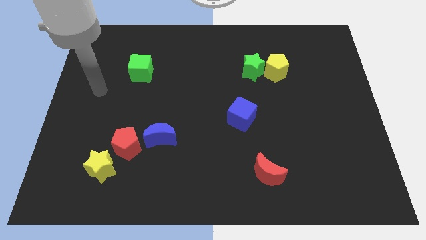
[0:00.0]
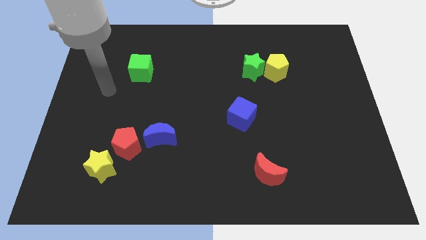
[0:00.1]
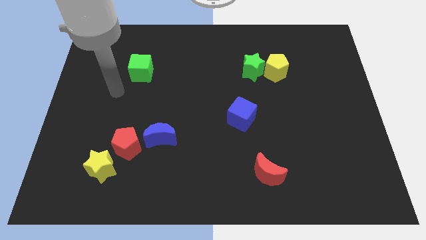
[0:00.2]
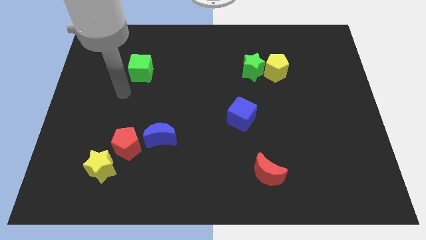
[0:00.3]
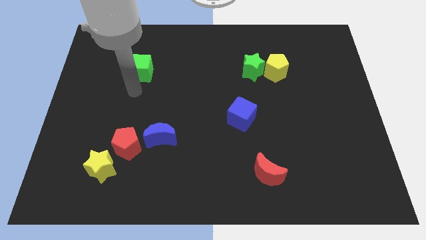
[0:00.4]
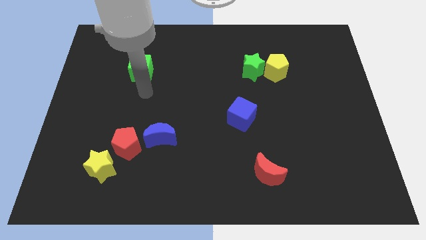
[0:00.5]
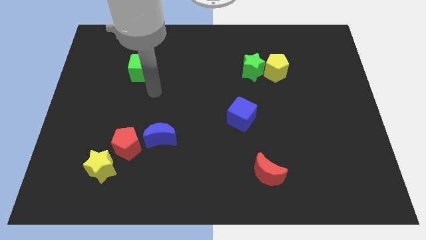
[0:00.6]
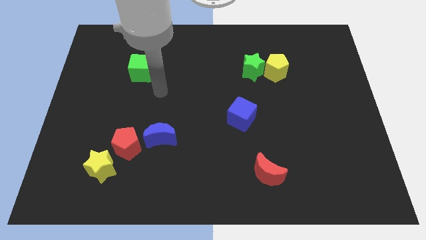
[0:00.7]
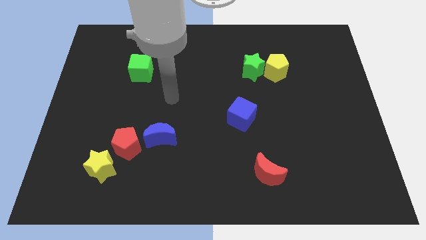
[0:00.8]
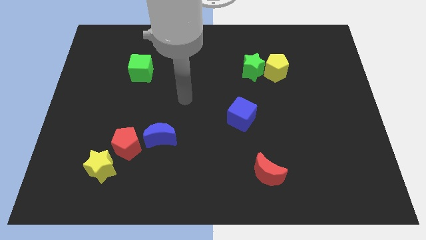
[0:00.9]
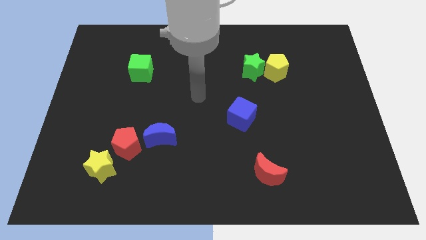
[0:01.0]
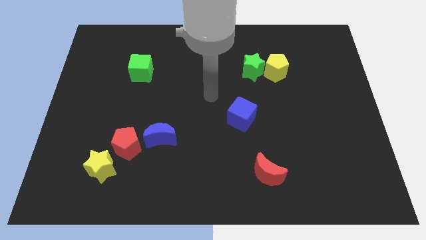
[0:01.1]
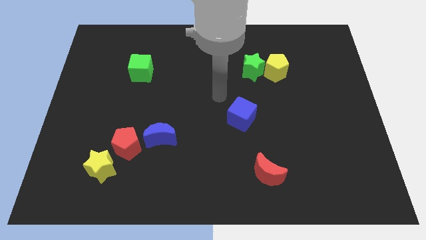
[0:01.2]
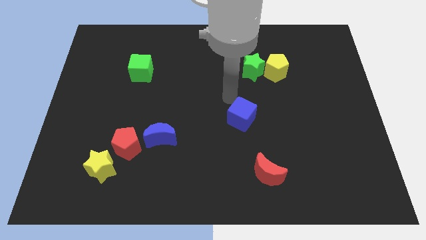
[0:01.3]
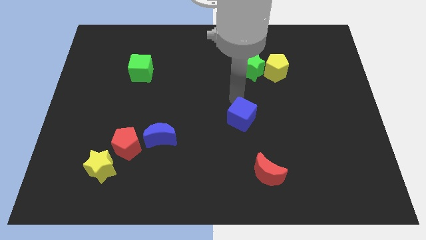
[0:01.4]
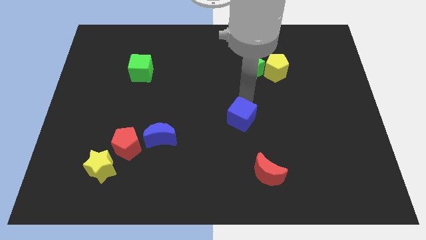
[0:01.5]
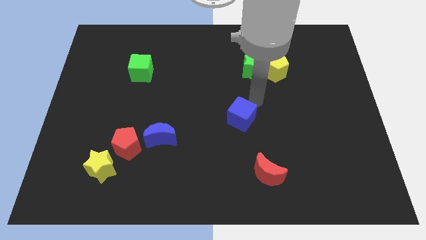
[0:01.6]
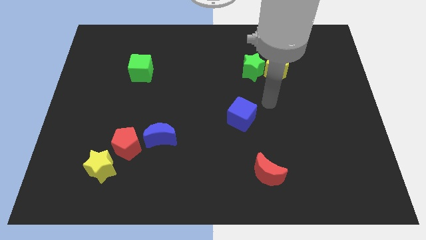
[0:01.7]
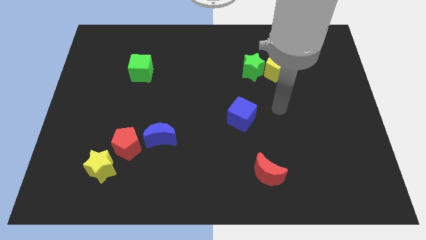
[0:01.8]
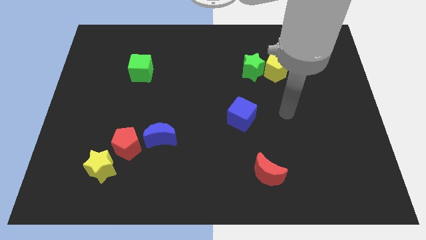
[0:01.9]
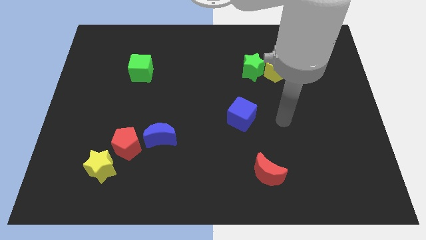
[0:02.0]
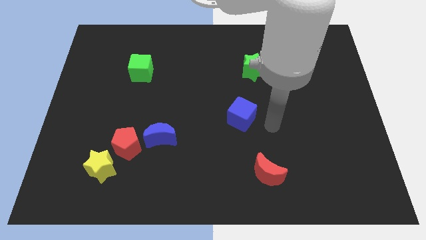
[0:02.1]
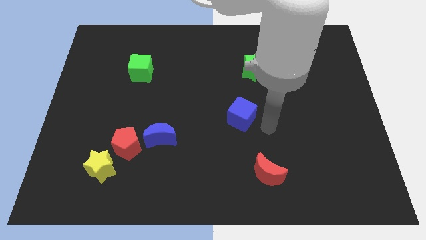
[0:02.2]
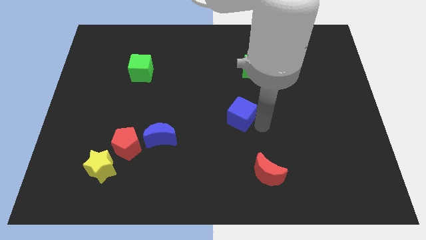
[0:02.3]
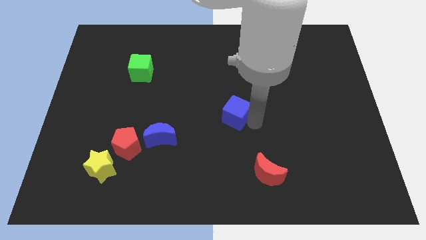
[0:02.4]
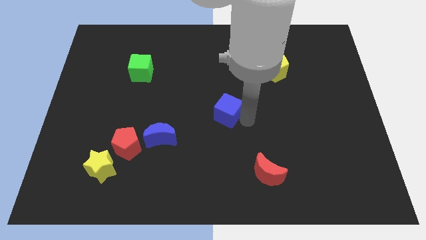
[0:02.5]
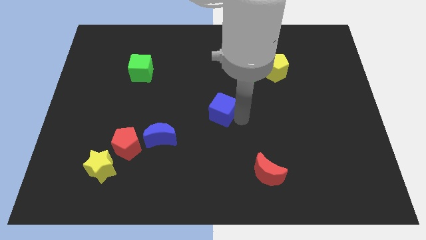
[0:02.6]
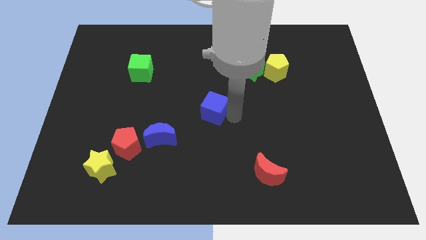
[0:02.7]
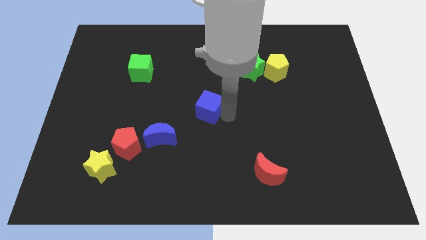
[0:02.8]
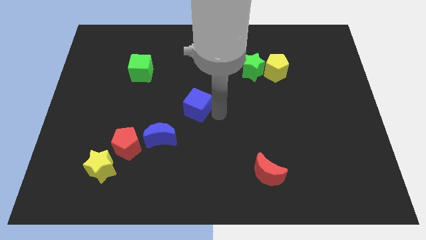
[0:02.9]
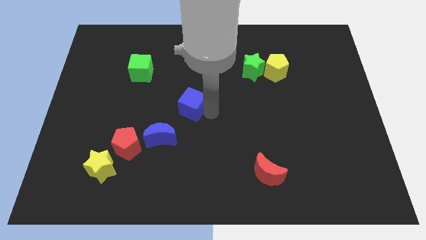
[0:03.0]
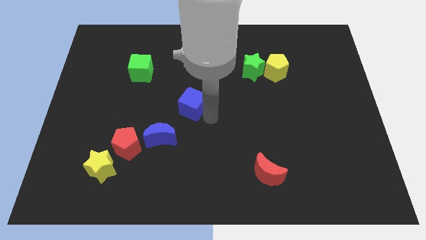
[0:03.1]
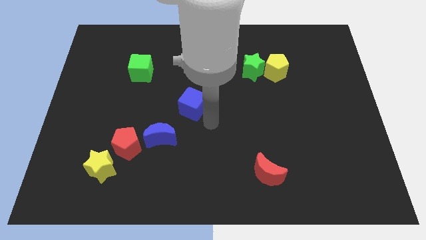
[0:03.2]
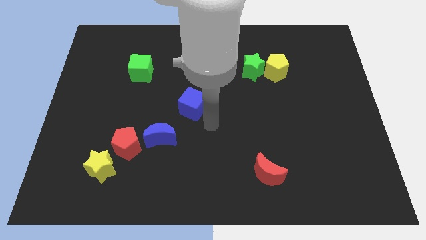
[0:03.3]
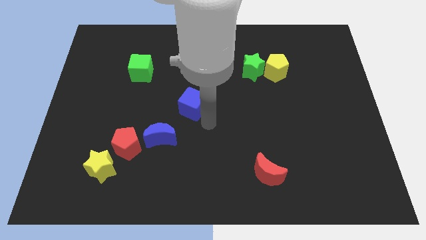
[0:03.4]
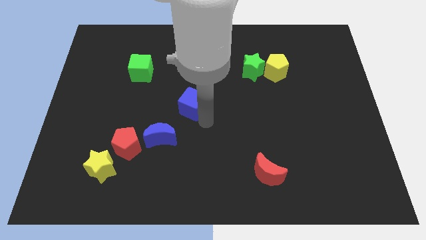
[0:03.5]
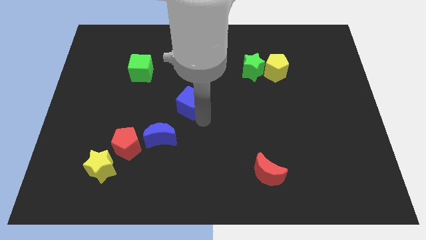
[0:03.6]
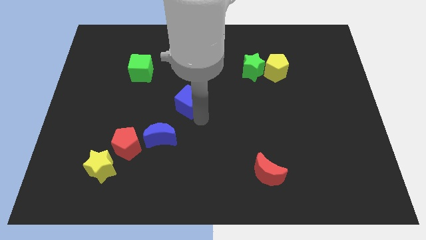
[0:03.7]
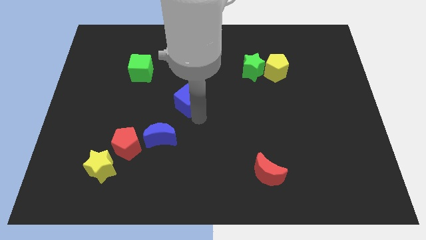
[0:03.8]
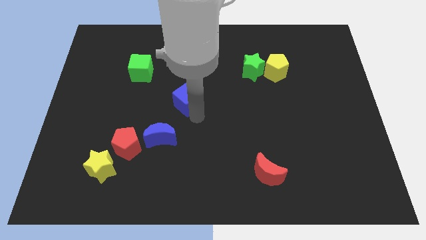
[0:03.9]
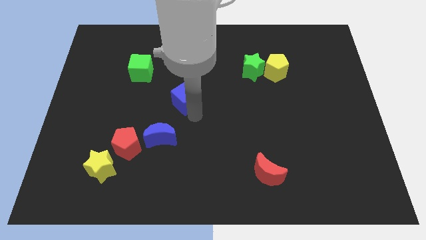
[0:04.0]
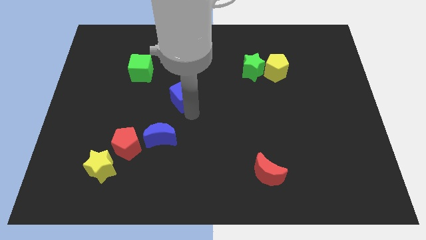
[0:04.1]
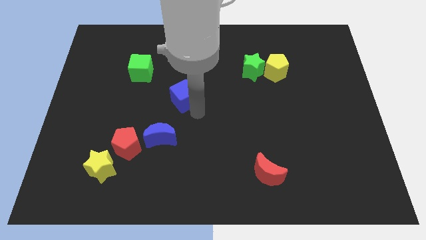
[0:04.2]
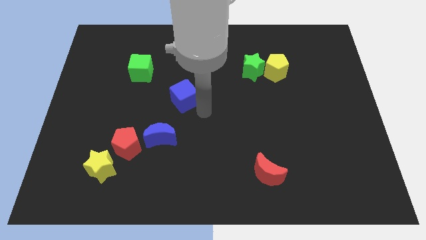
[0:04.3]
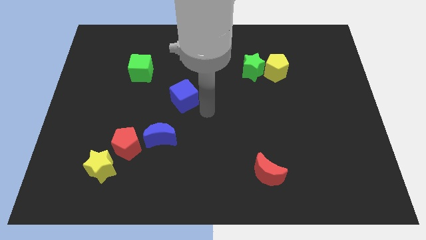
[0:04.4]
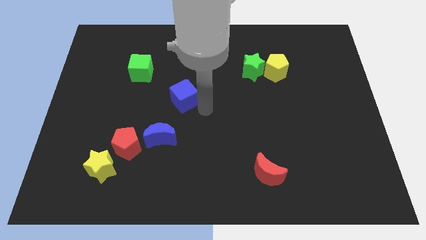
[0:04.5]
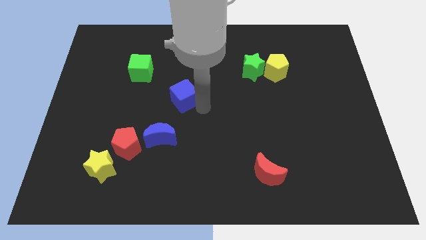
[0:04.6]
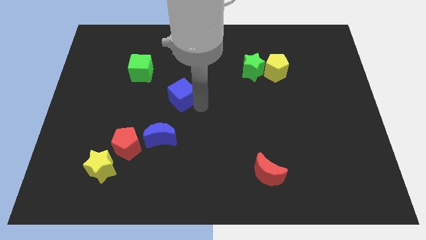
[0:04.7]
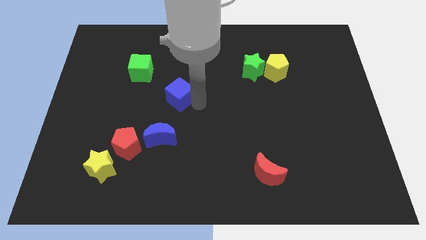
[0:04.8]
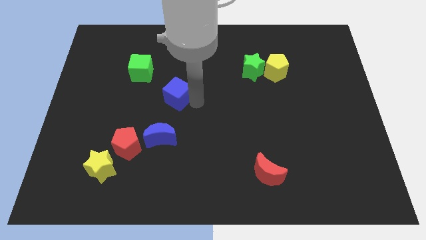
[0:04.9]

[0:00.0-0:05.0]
move the blue cube diagonally down and to the right of the green cube

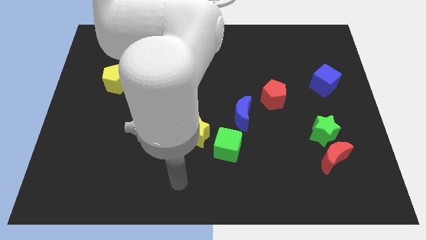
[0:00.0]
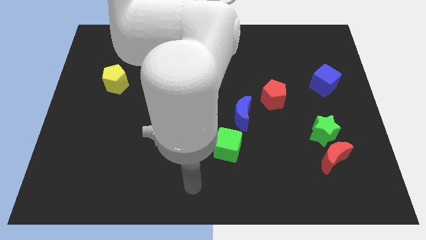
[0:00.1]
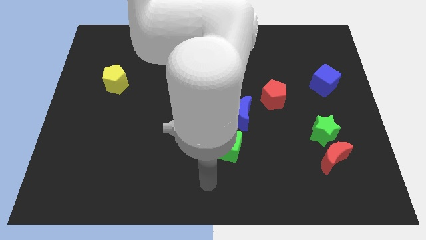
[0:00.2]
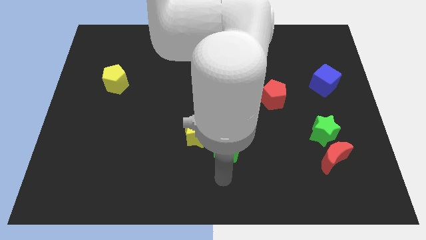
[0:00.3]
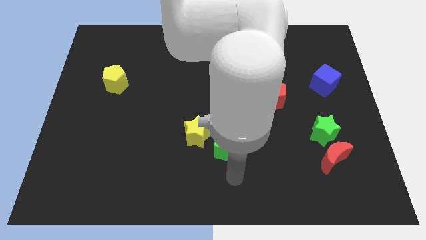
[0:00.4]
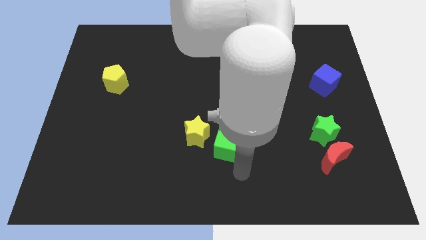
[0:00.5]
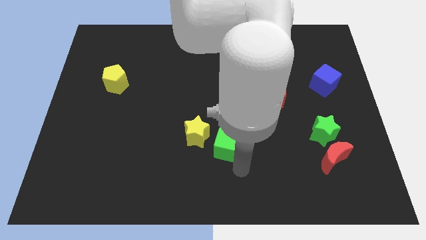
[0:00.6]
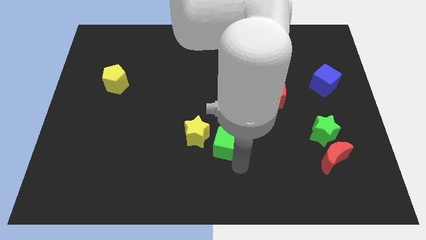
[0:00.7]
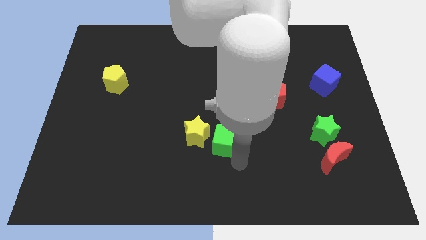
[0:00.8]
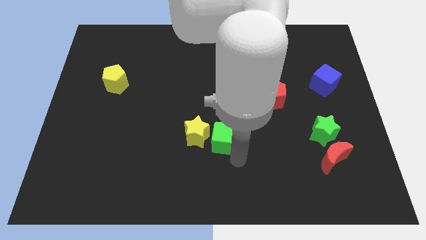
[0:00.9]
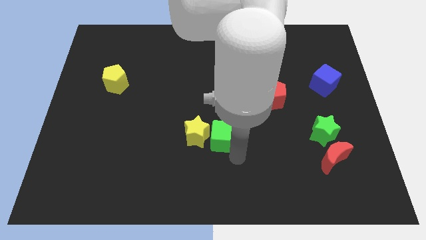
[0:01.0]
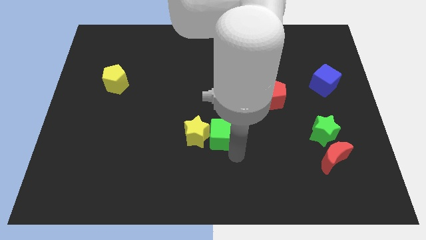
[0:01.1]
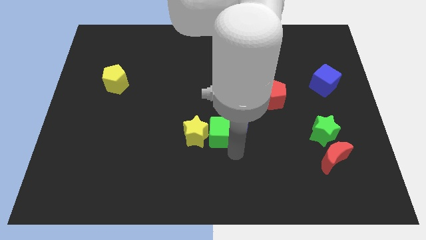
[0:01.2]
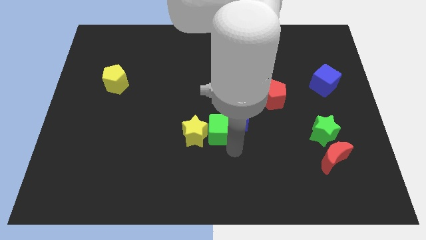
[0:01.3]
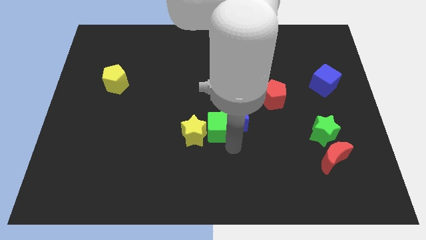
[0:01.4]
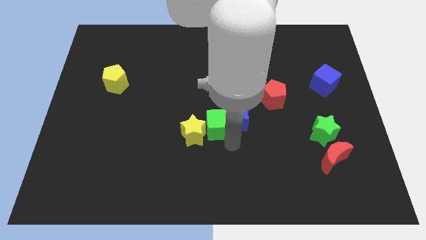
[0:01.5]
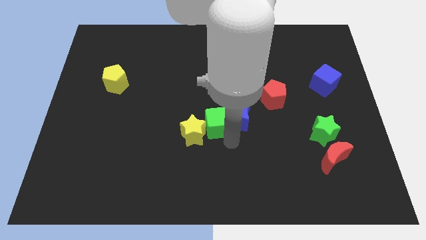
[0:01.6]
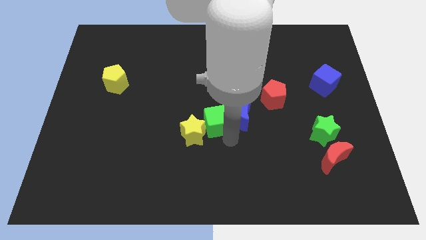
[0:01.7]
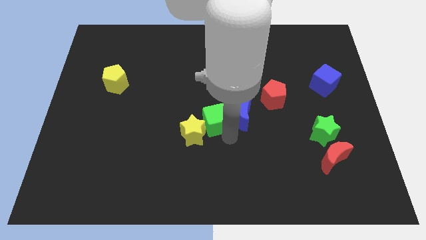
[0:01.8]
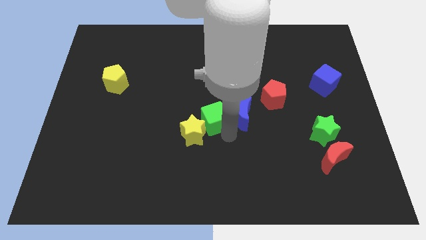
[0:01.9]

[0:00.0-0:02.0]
put the green cube to the top side of the yellow star
